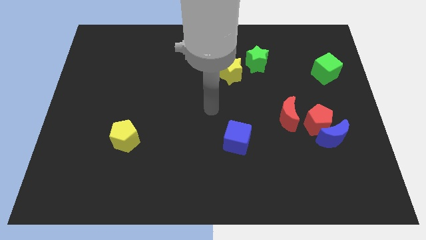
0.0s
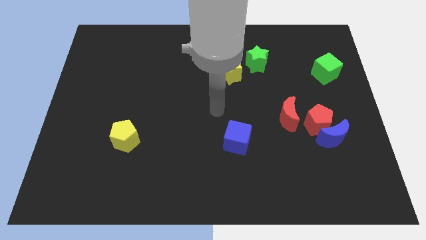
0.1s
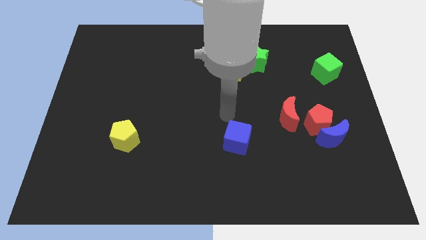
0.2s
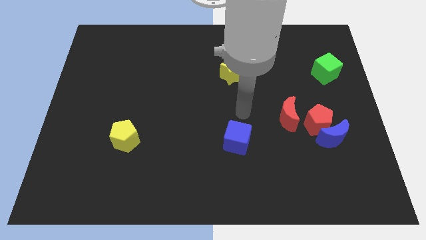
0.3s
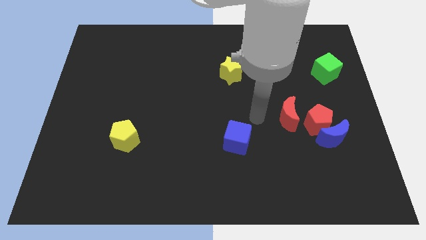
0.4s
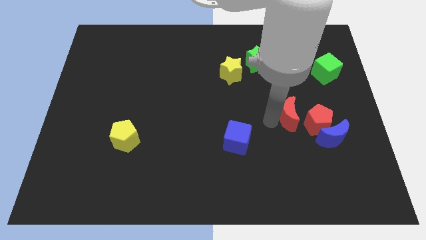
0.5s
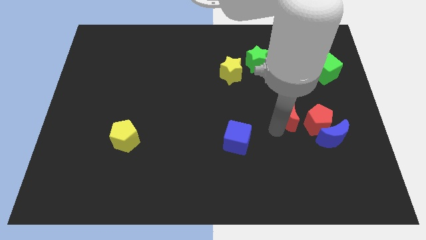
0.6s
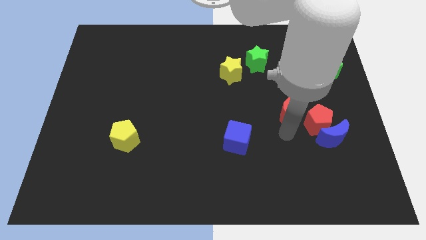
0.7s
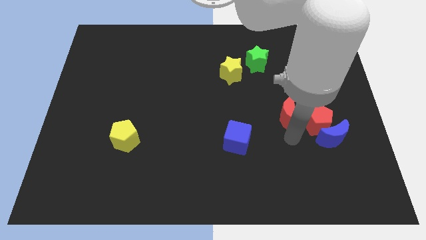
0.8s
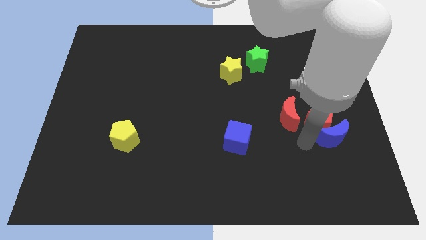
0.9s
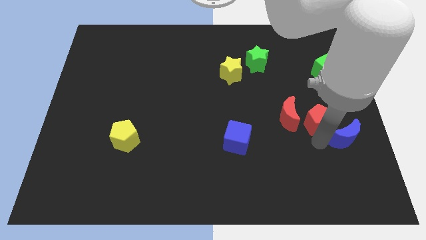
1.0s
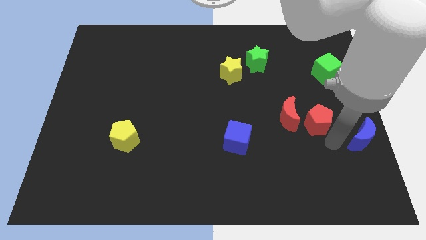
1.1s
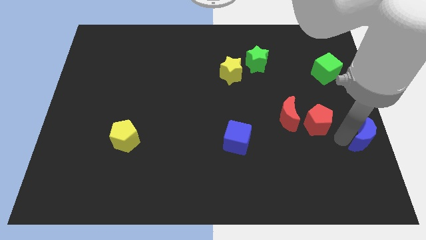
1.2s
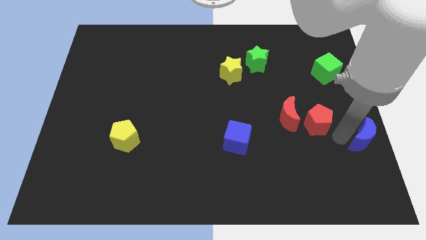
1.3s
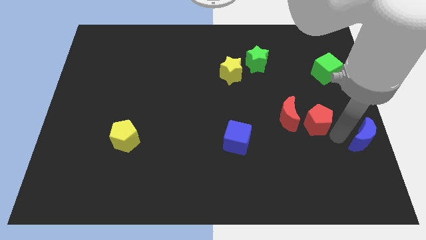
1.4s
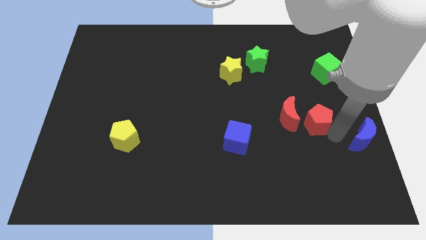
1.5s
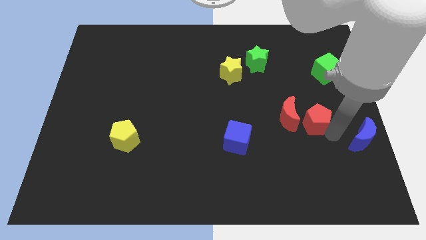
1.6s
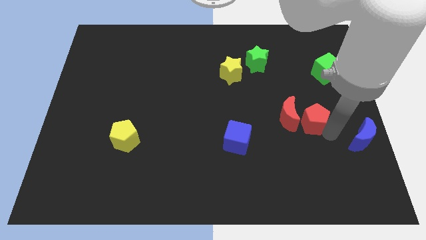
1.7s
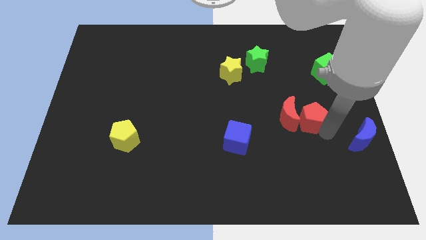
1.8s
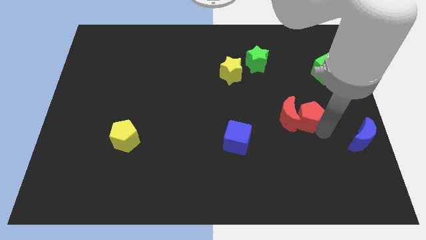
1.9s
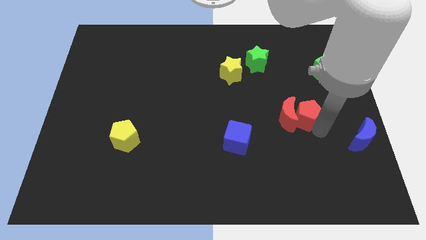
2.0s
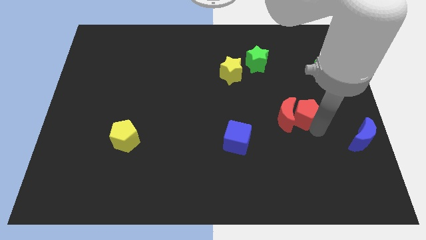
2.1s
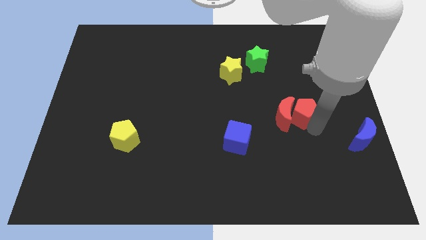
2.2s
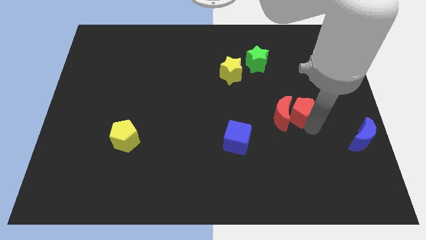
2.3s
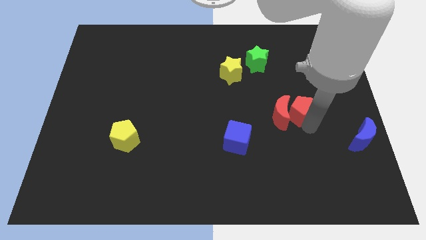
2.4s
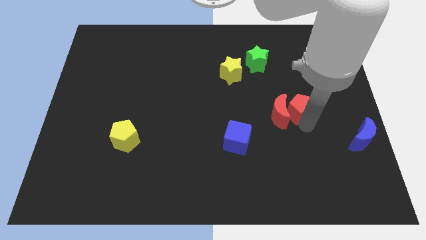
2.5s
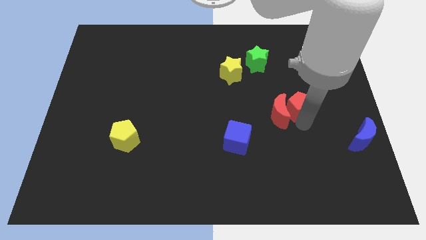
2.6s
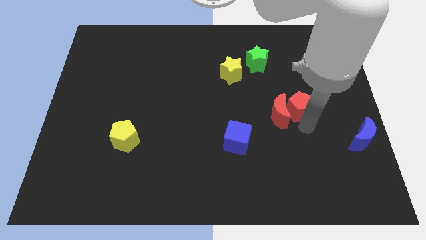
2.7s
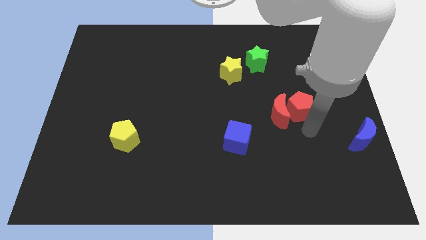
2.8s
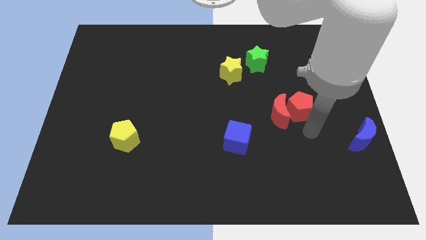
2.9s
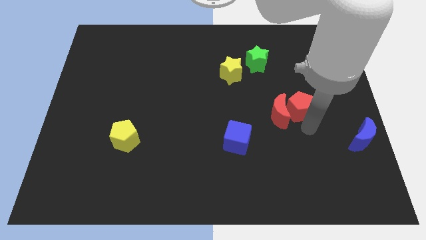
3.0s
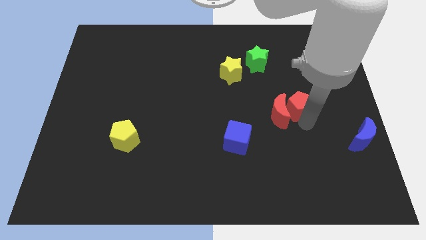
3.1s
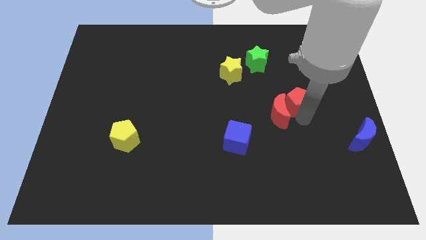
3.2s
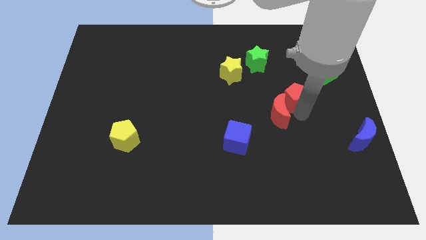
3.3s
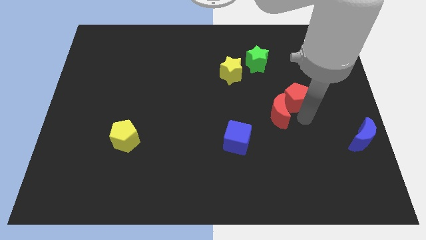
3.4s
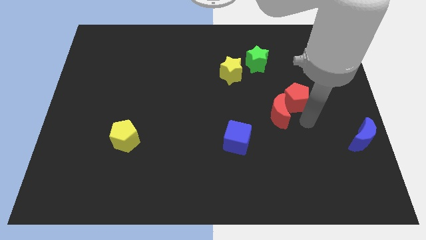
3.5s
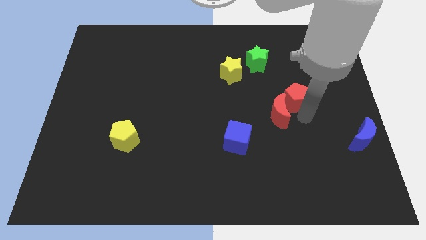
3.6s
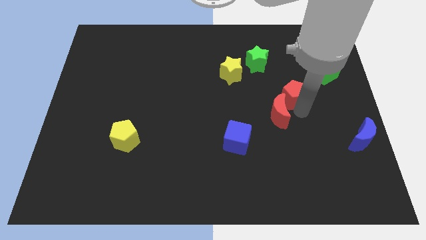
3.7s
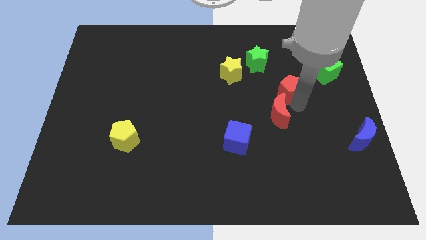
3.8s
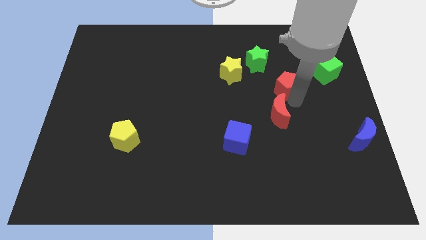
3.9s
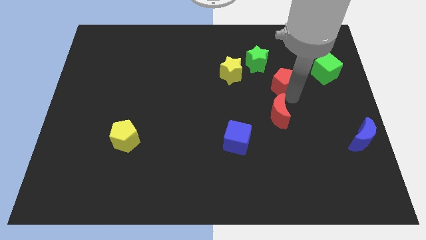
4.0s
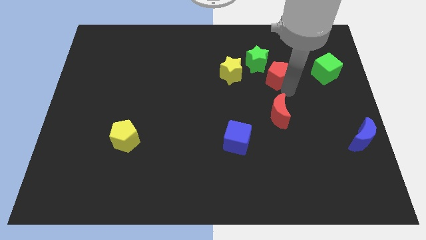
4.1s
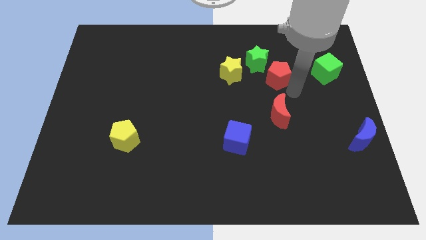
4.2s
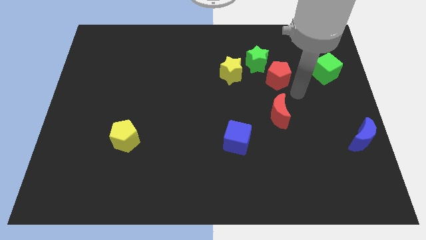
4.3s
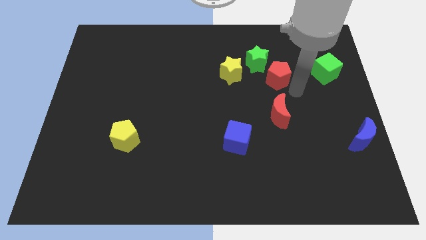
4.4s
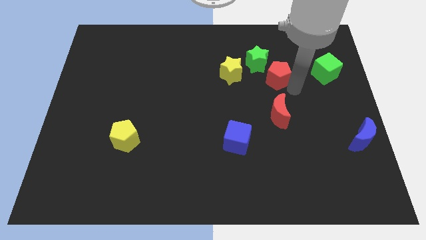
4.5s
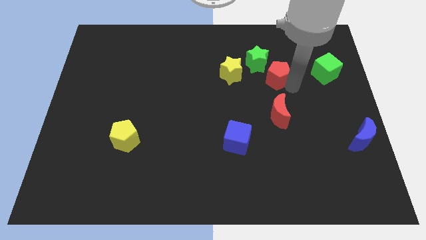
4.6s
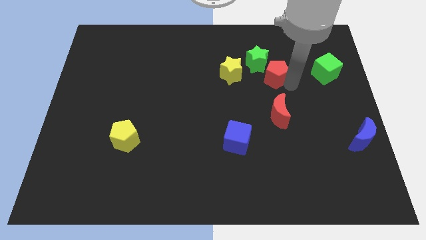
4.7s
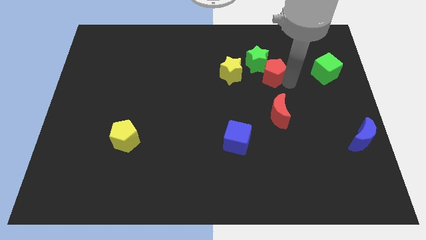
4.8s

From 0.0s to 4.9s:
slide the red pentagon next to the green star

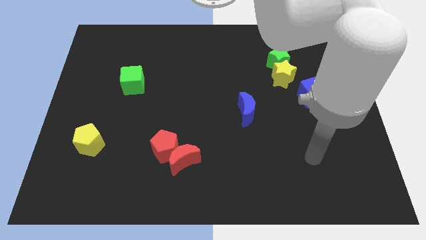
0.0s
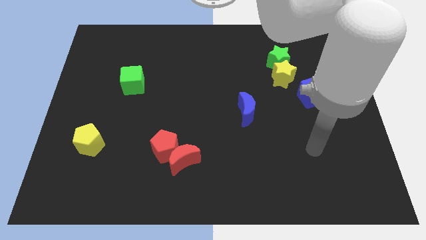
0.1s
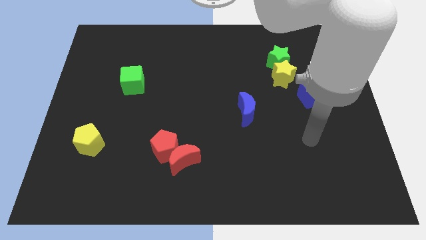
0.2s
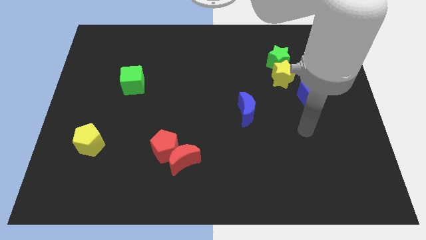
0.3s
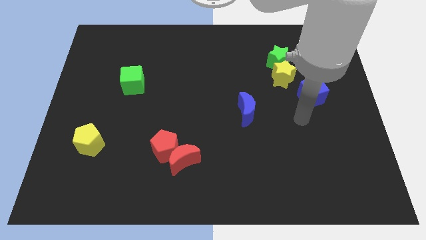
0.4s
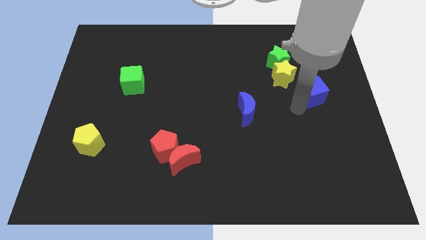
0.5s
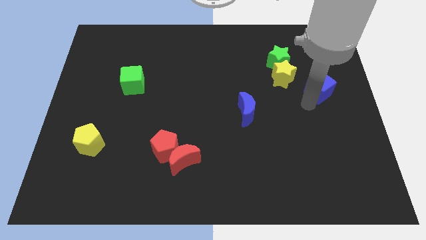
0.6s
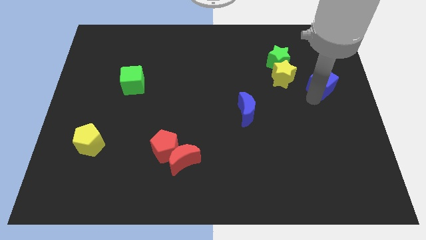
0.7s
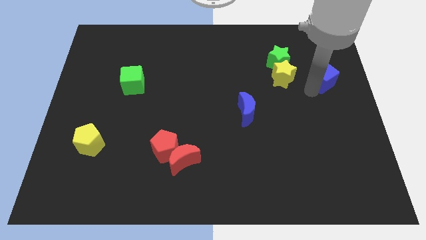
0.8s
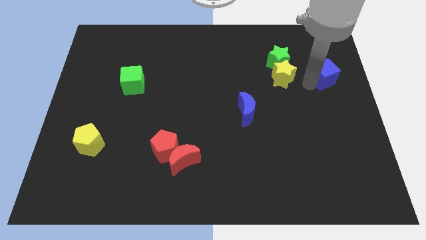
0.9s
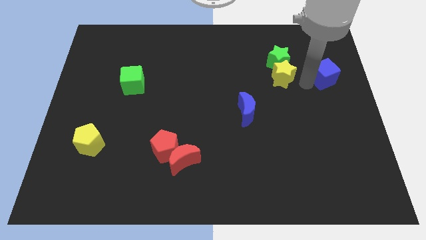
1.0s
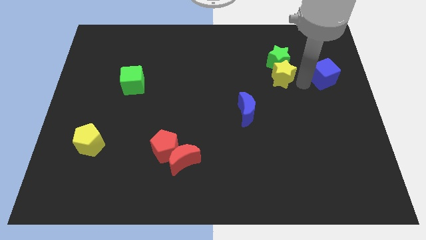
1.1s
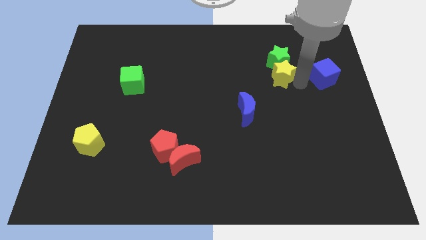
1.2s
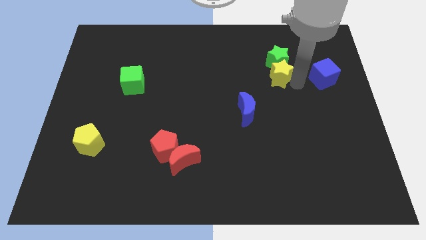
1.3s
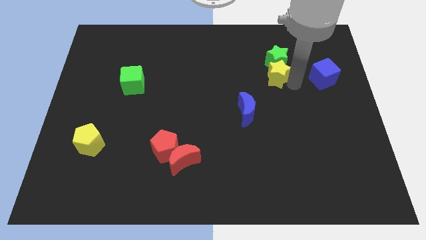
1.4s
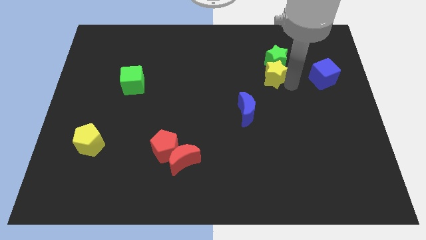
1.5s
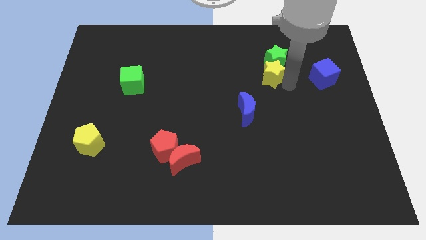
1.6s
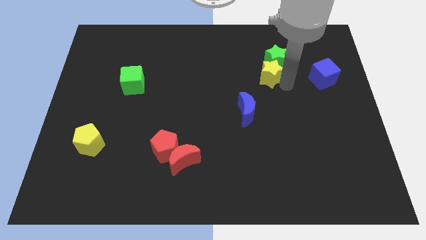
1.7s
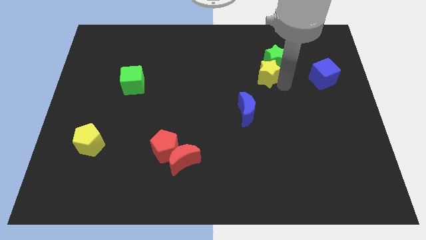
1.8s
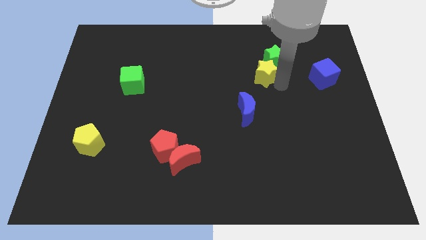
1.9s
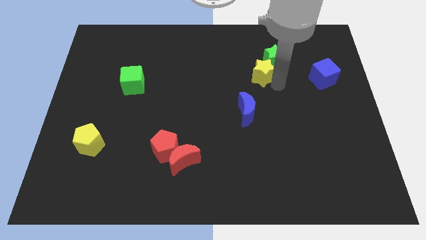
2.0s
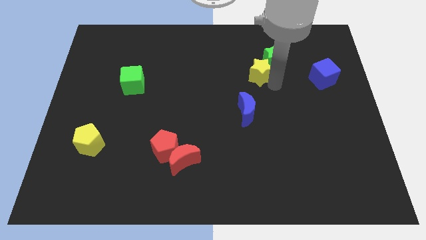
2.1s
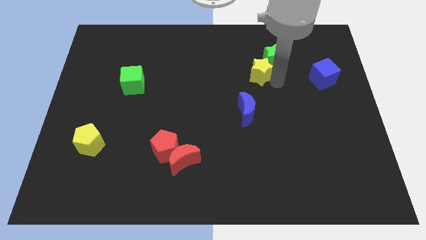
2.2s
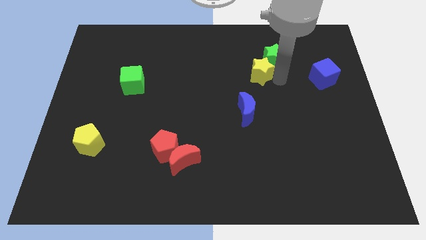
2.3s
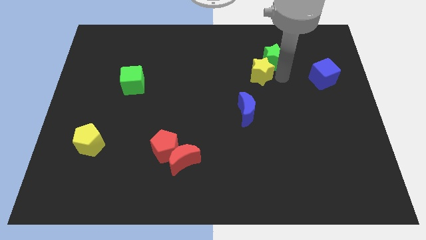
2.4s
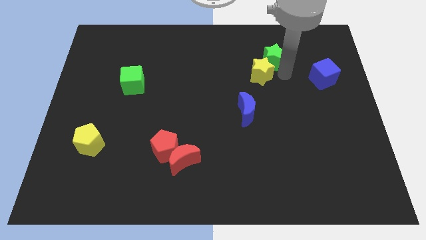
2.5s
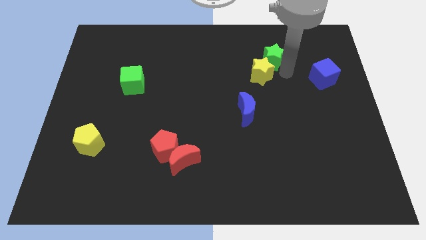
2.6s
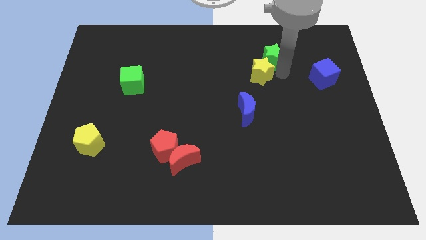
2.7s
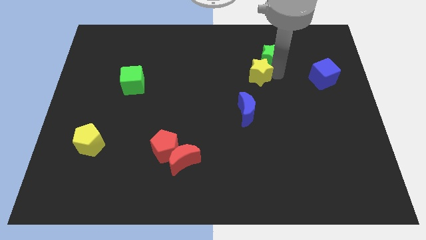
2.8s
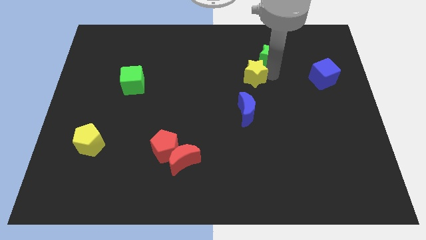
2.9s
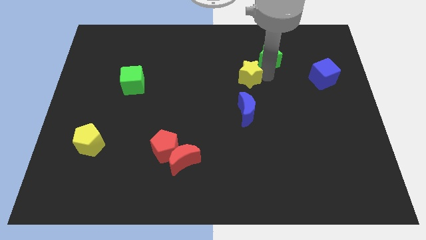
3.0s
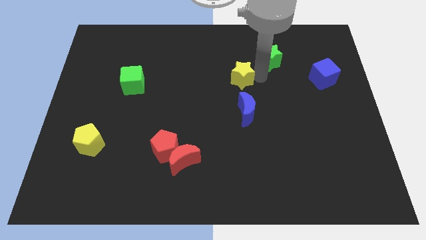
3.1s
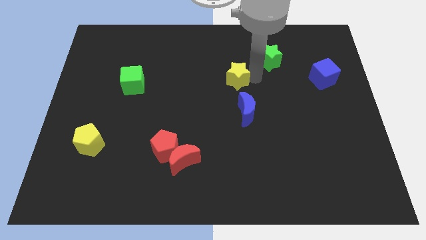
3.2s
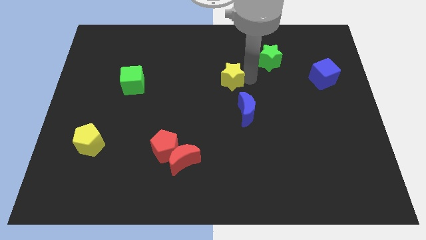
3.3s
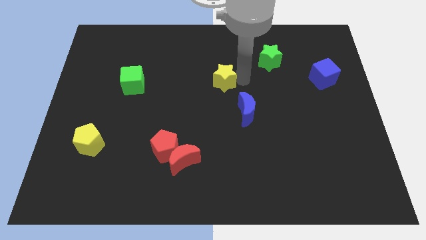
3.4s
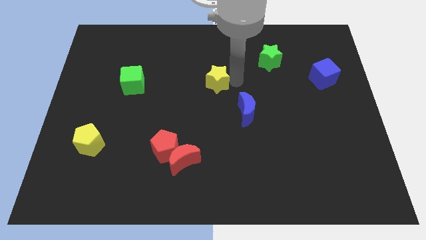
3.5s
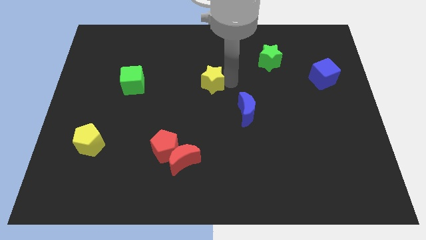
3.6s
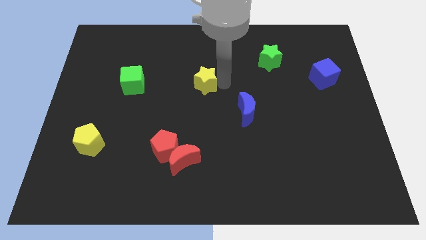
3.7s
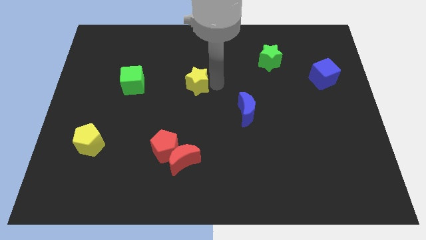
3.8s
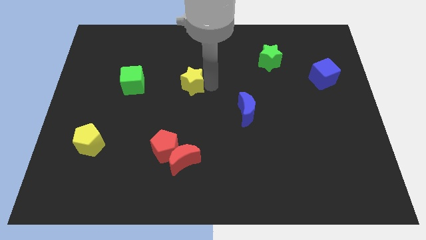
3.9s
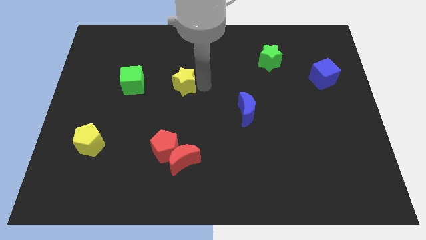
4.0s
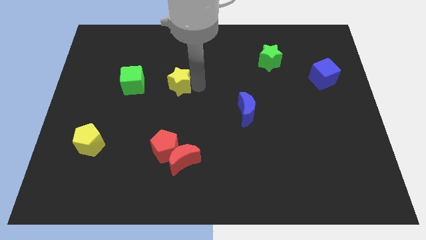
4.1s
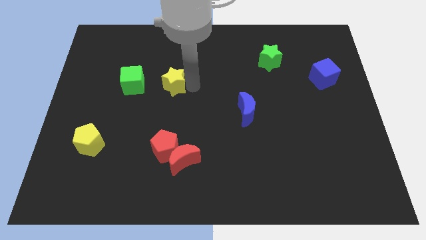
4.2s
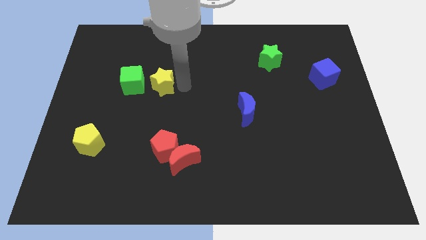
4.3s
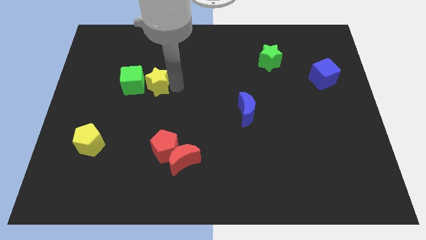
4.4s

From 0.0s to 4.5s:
move the yellow star next to the green cube
